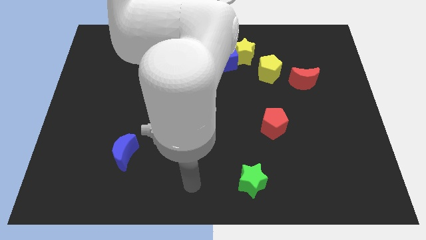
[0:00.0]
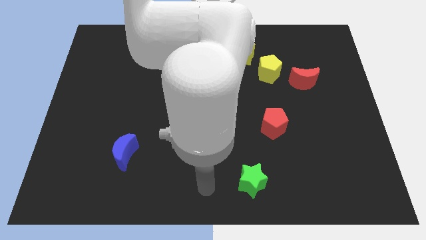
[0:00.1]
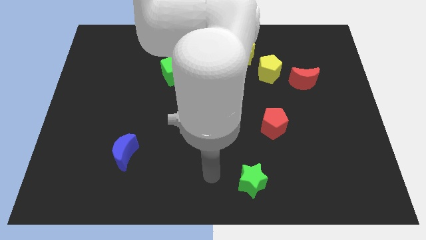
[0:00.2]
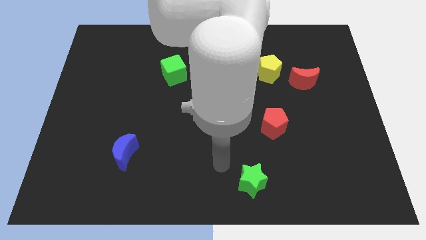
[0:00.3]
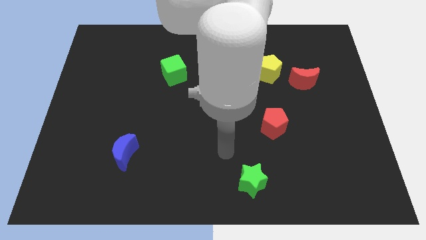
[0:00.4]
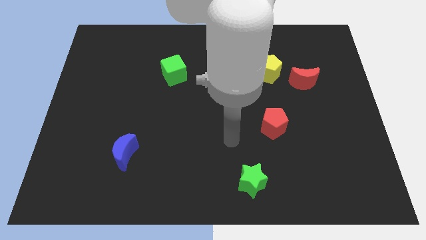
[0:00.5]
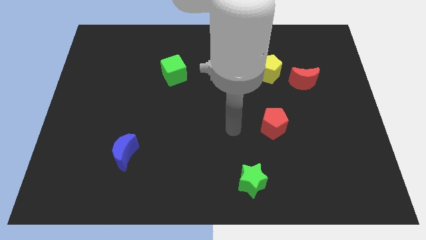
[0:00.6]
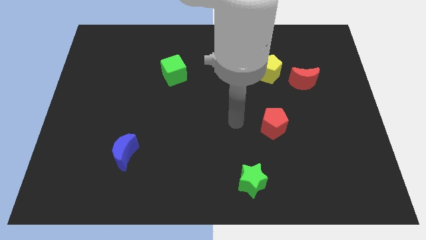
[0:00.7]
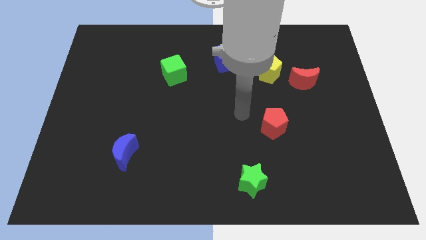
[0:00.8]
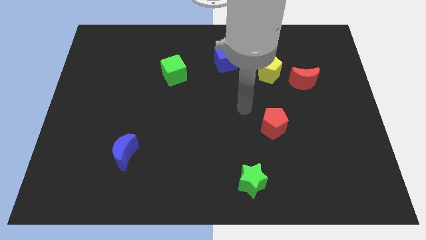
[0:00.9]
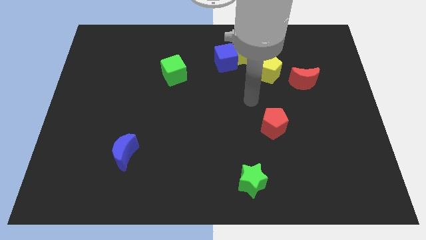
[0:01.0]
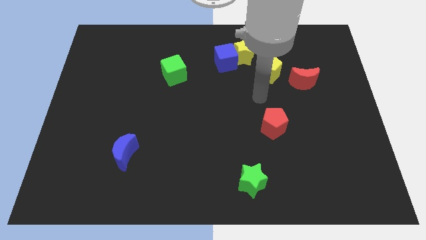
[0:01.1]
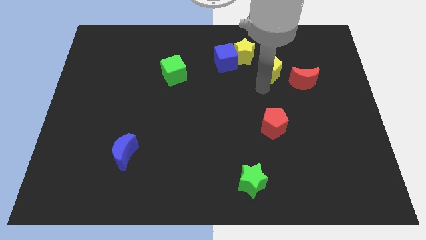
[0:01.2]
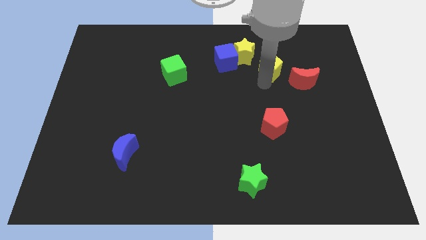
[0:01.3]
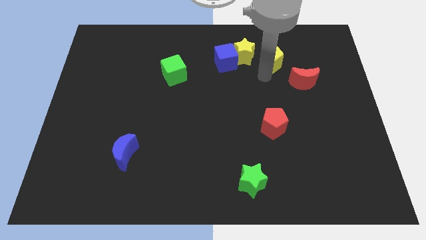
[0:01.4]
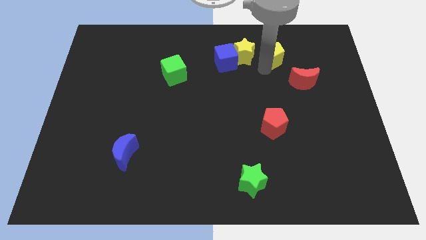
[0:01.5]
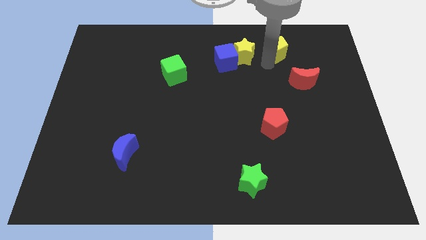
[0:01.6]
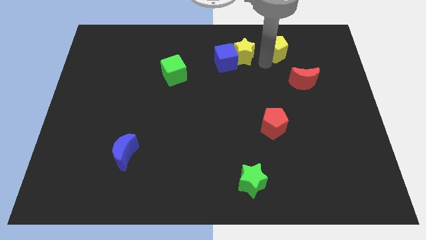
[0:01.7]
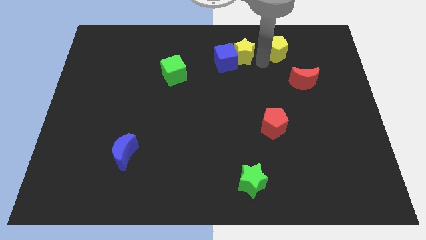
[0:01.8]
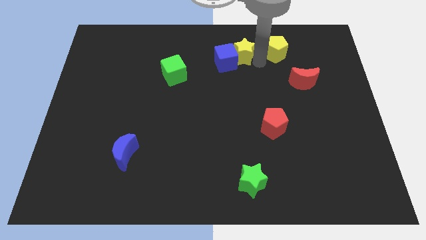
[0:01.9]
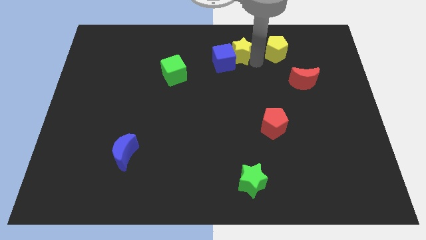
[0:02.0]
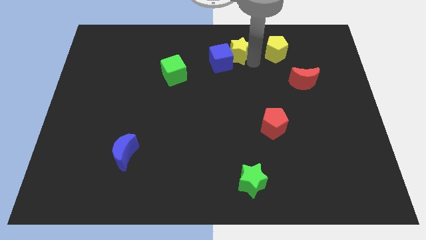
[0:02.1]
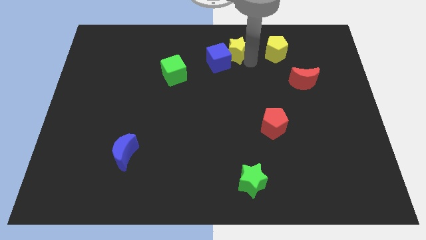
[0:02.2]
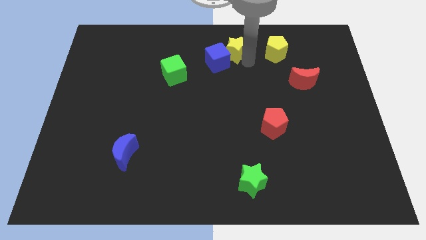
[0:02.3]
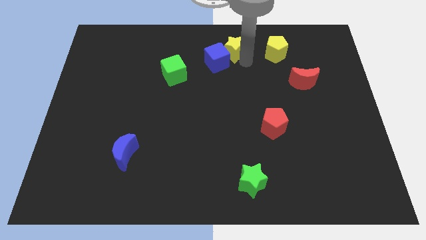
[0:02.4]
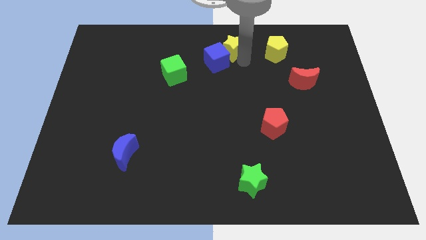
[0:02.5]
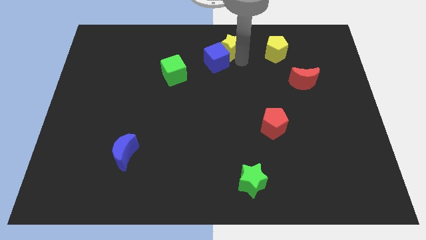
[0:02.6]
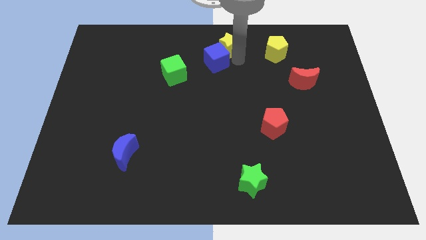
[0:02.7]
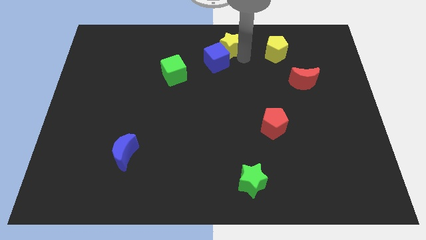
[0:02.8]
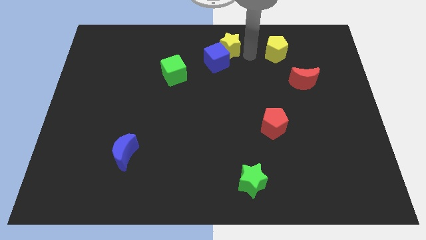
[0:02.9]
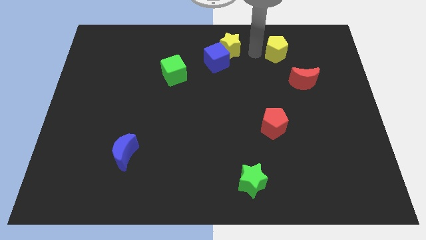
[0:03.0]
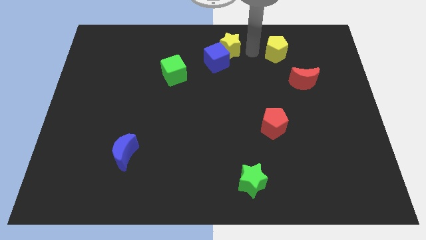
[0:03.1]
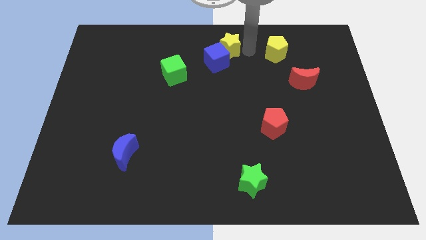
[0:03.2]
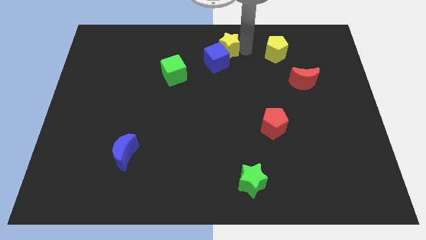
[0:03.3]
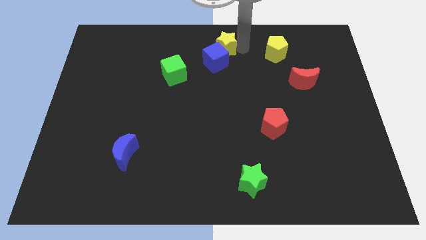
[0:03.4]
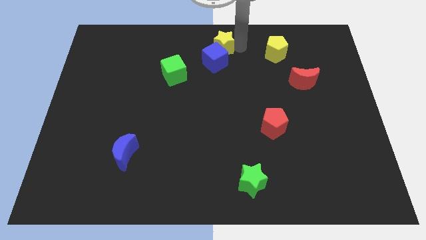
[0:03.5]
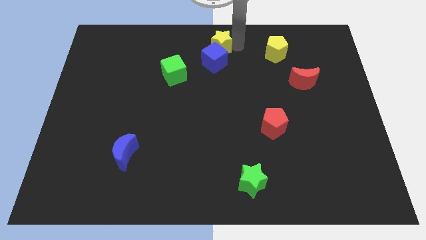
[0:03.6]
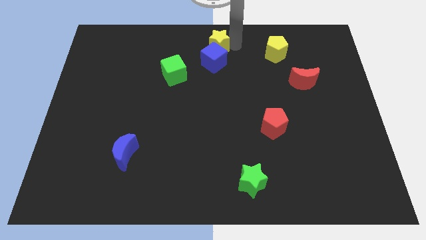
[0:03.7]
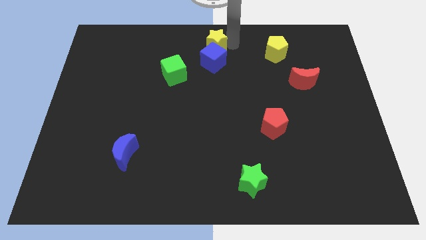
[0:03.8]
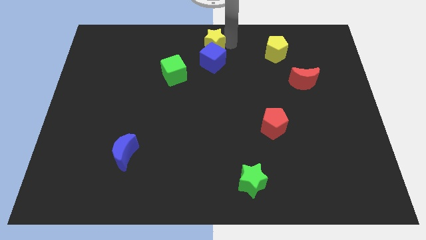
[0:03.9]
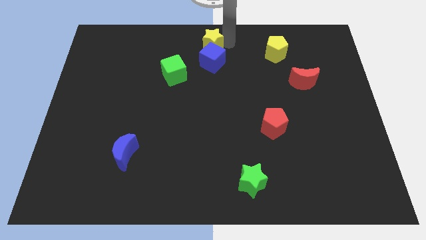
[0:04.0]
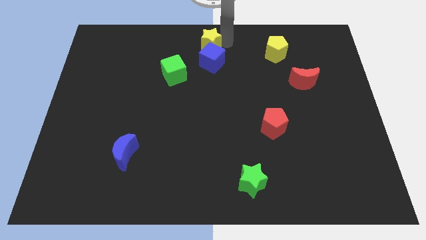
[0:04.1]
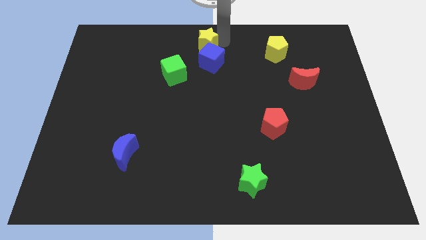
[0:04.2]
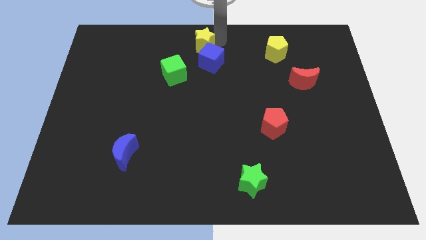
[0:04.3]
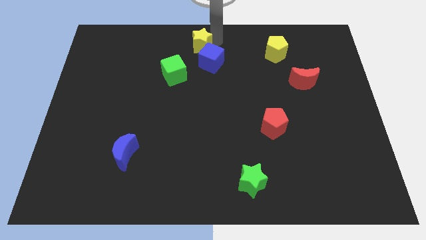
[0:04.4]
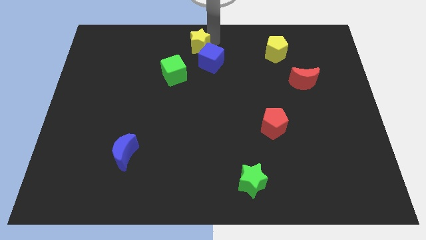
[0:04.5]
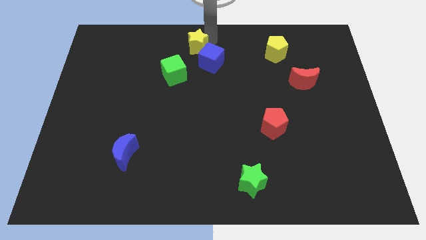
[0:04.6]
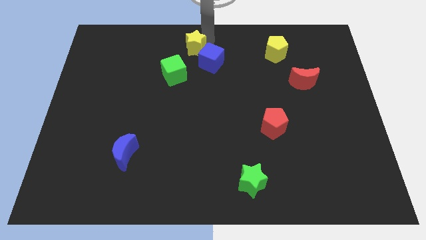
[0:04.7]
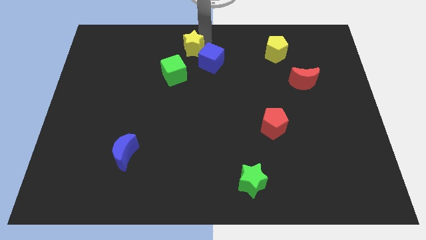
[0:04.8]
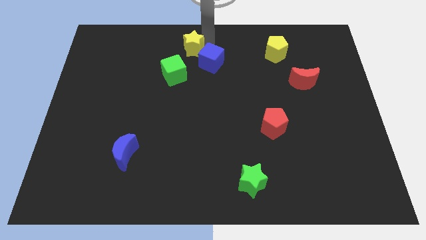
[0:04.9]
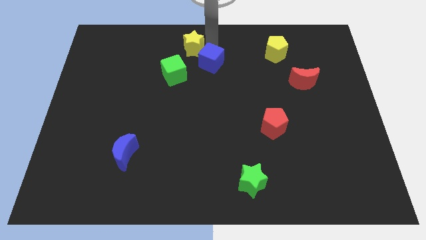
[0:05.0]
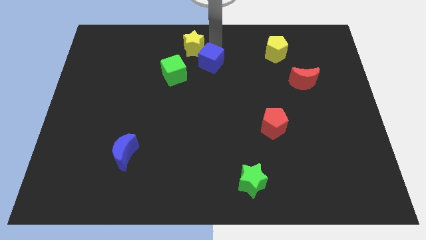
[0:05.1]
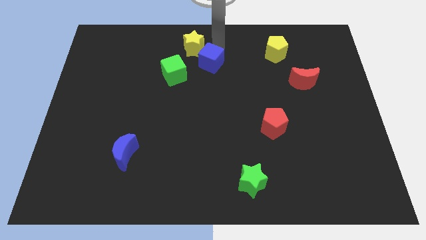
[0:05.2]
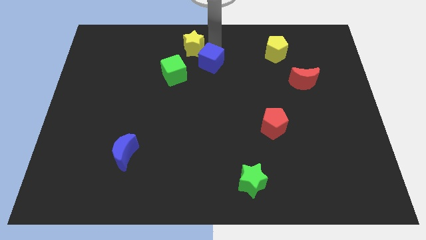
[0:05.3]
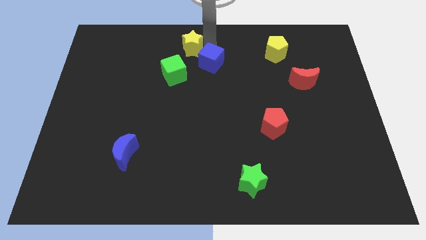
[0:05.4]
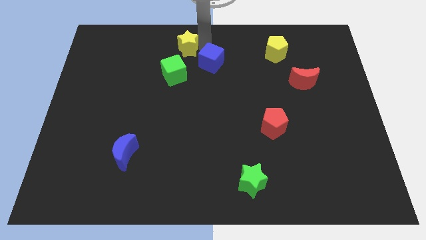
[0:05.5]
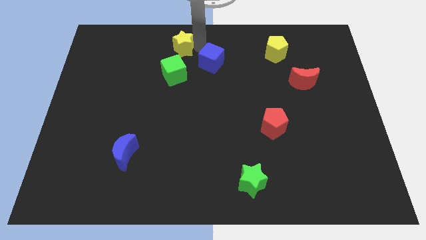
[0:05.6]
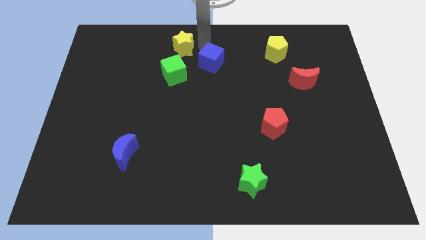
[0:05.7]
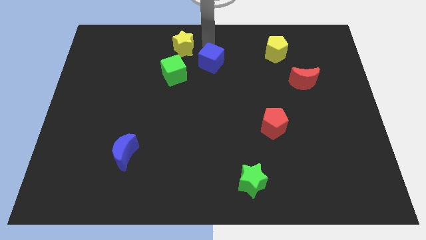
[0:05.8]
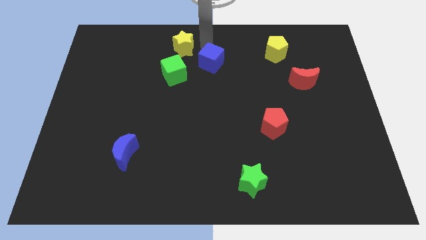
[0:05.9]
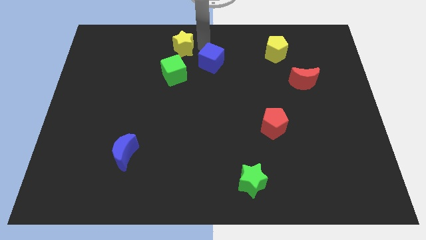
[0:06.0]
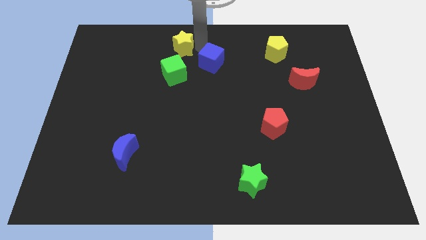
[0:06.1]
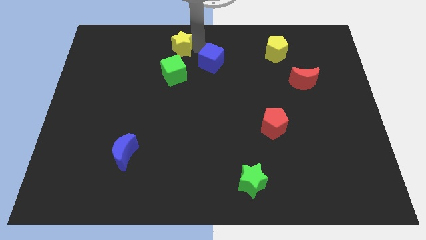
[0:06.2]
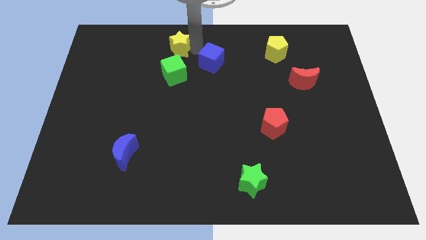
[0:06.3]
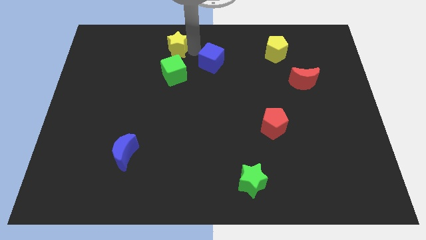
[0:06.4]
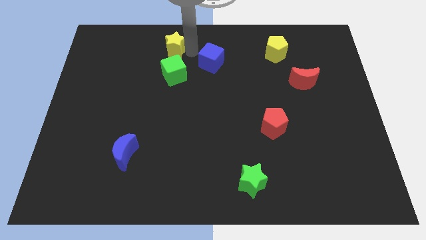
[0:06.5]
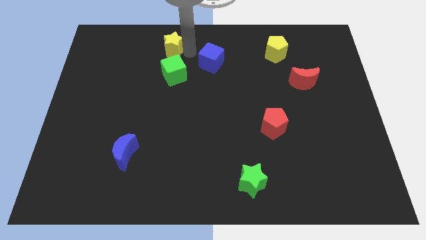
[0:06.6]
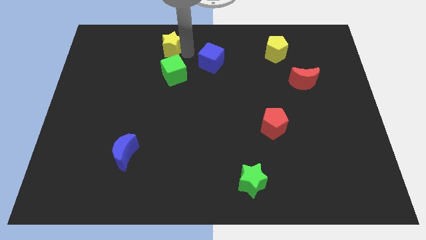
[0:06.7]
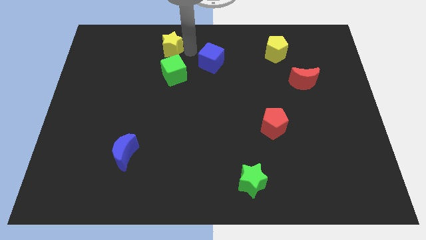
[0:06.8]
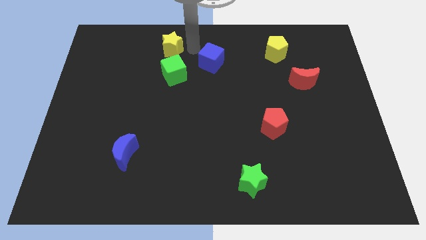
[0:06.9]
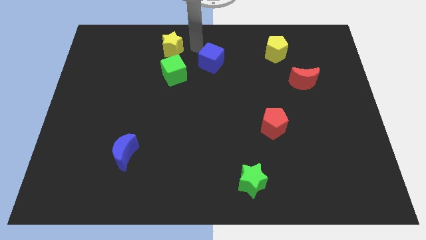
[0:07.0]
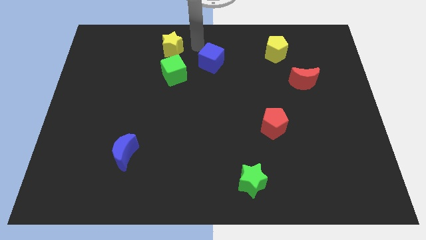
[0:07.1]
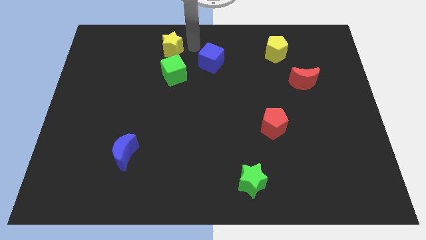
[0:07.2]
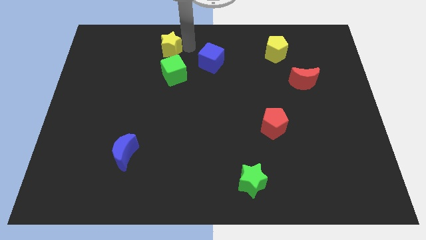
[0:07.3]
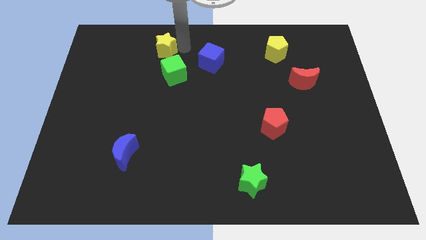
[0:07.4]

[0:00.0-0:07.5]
move the yellow star left

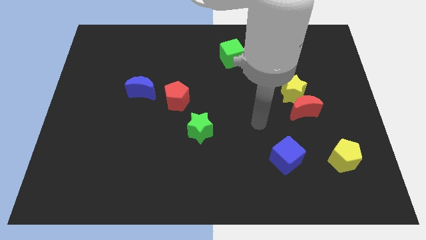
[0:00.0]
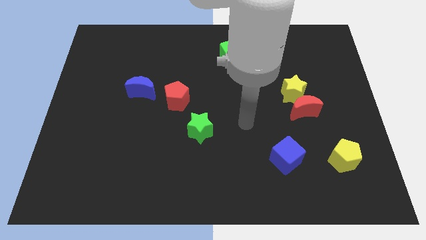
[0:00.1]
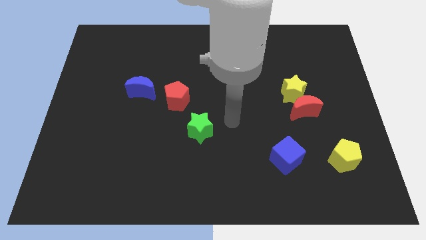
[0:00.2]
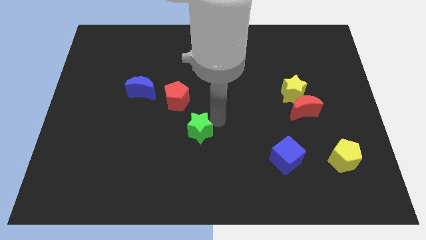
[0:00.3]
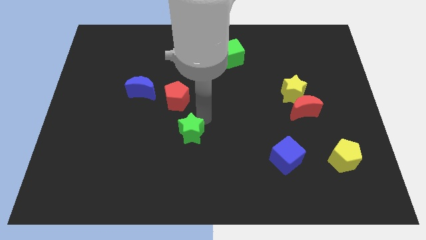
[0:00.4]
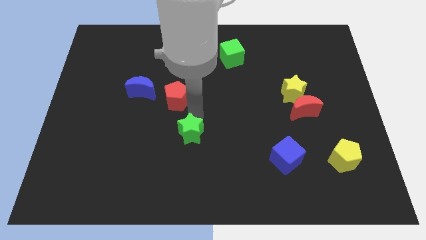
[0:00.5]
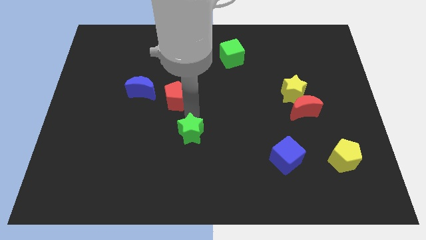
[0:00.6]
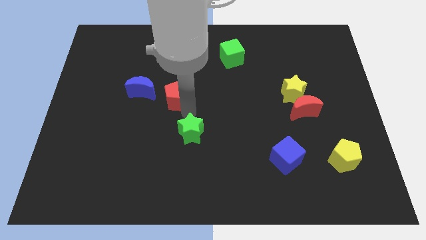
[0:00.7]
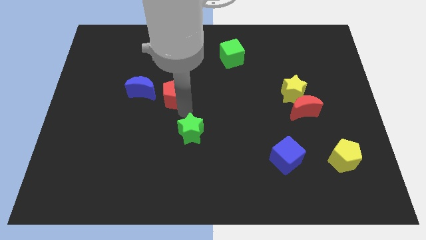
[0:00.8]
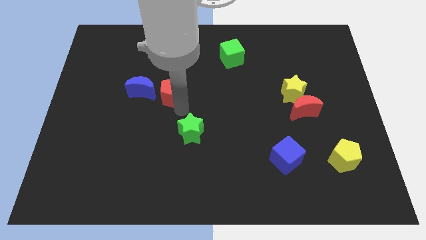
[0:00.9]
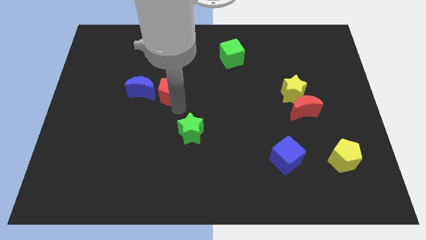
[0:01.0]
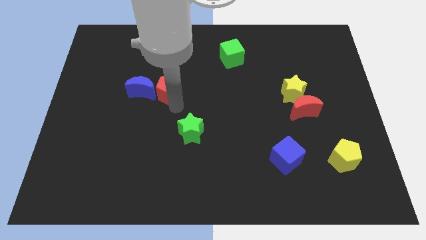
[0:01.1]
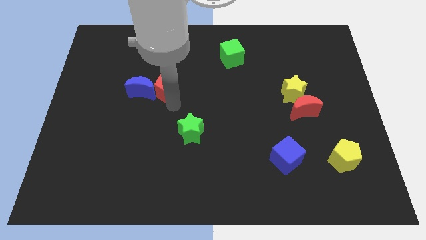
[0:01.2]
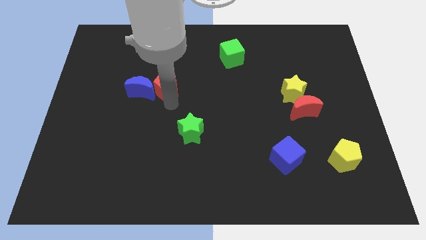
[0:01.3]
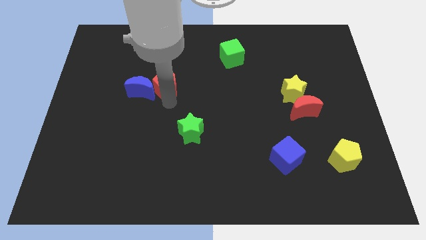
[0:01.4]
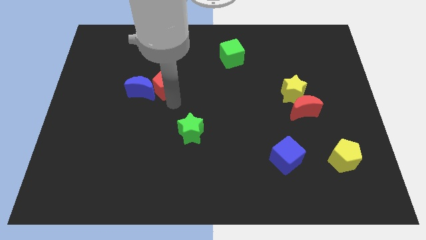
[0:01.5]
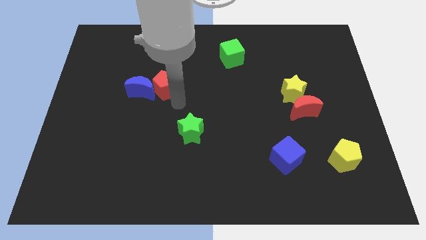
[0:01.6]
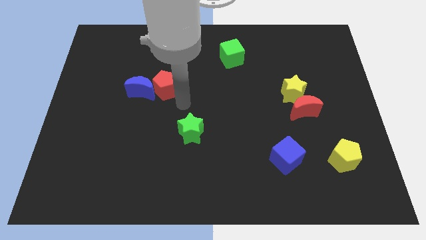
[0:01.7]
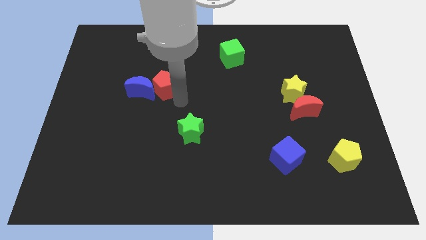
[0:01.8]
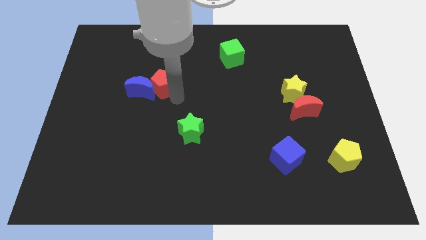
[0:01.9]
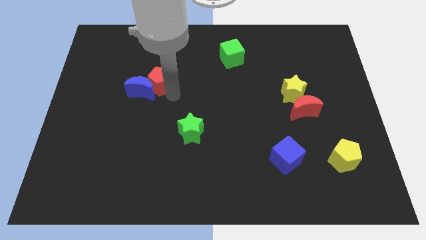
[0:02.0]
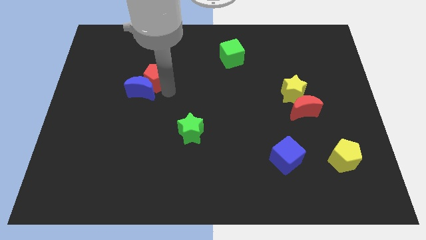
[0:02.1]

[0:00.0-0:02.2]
slide the red pentagon upwards and then left slightly
